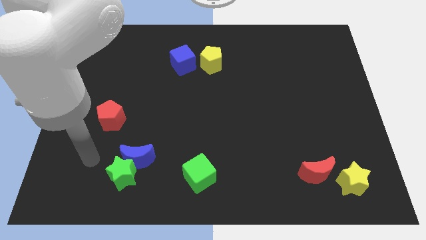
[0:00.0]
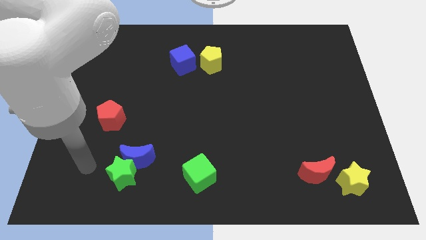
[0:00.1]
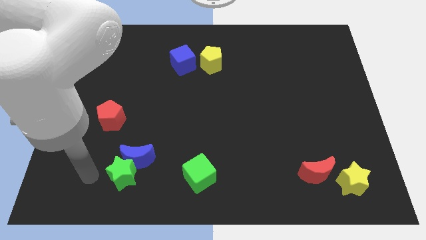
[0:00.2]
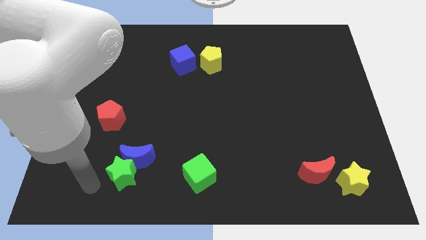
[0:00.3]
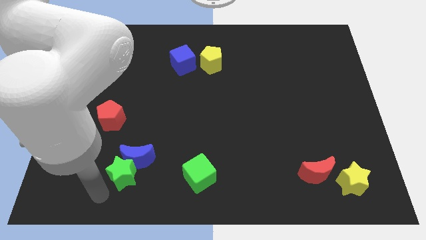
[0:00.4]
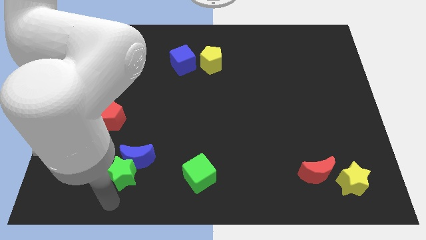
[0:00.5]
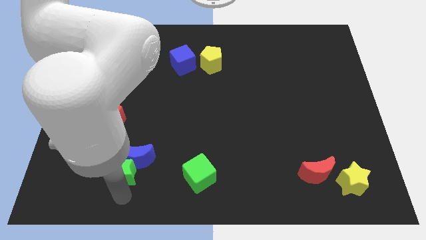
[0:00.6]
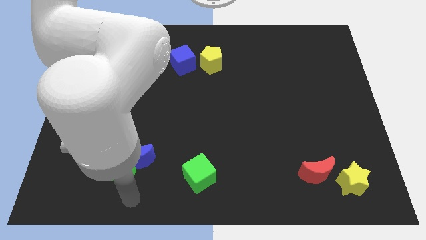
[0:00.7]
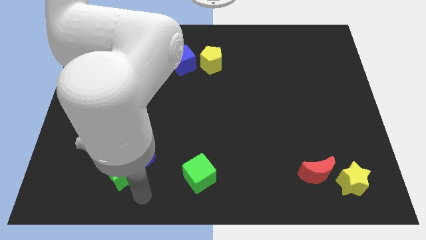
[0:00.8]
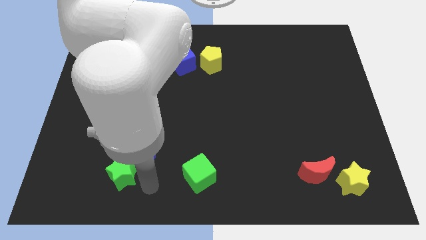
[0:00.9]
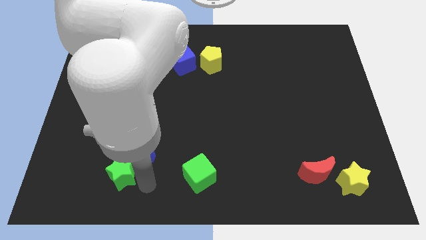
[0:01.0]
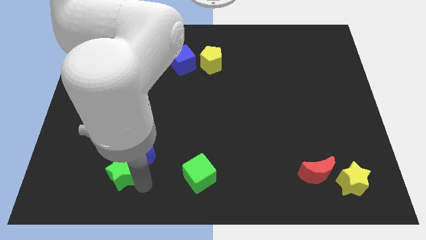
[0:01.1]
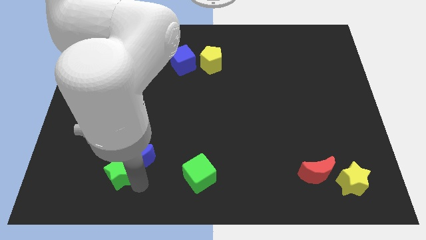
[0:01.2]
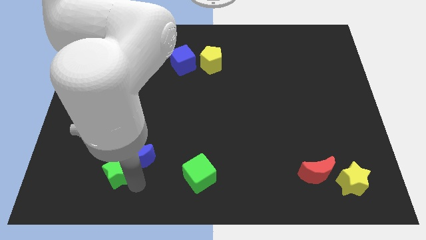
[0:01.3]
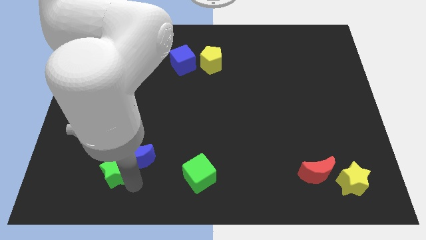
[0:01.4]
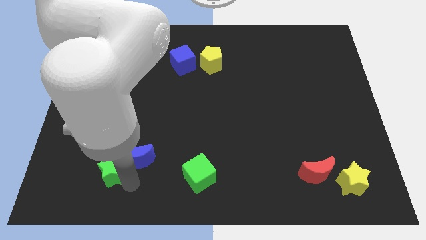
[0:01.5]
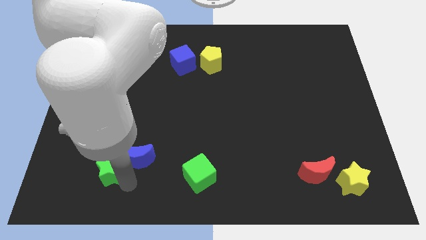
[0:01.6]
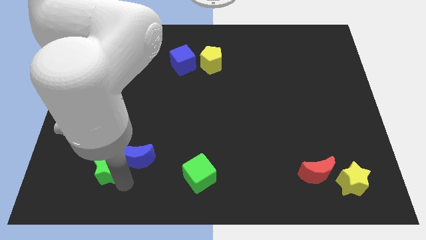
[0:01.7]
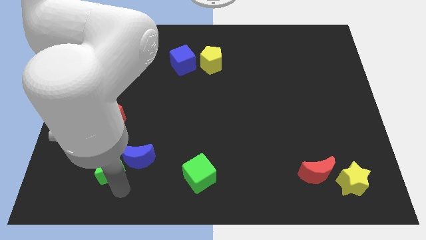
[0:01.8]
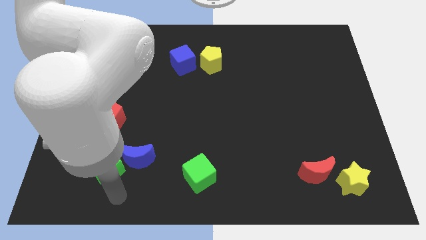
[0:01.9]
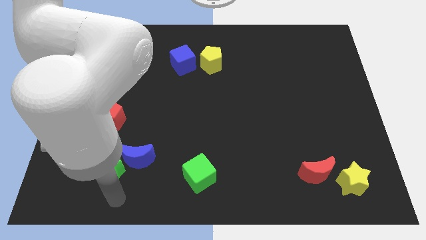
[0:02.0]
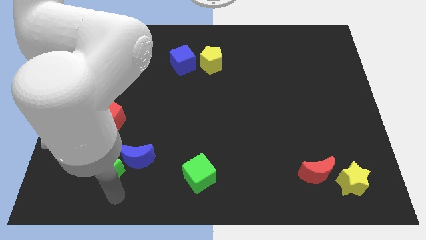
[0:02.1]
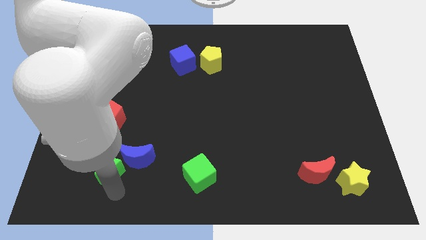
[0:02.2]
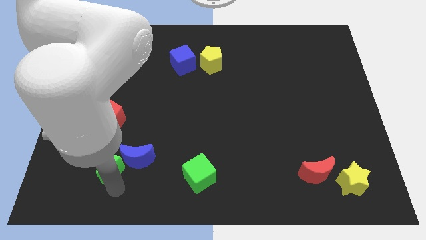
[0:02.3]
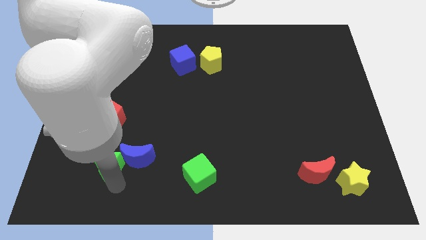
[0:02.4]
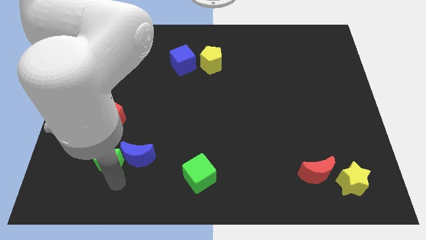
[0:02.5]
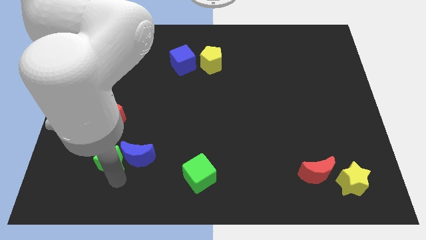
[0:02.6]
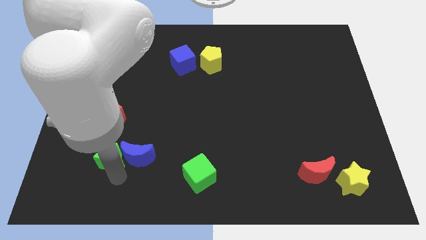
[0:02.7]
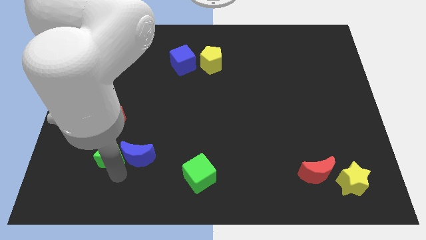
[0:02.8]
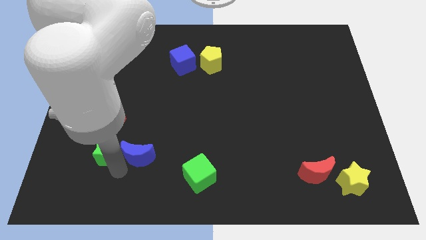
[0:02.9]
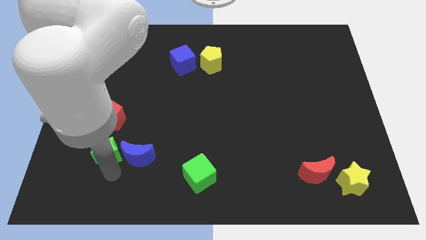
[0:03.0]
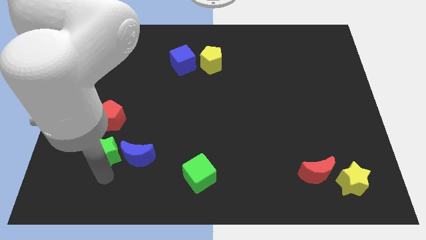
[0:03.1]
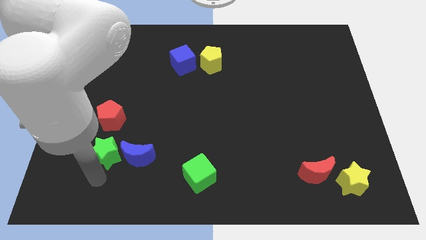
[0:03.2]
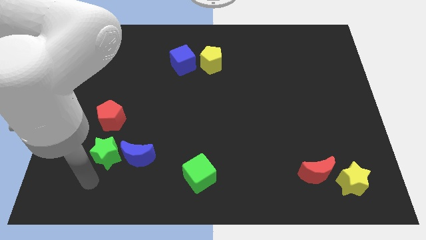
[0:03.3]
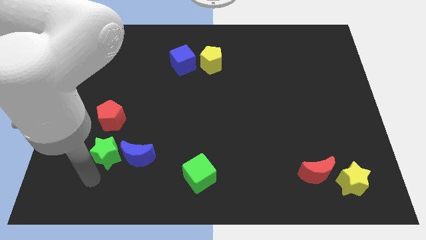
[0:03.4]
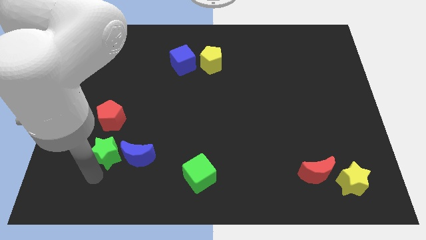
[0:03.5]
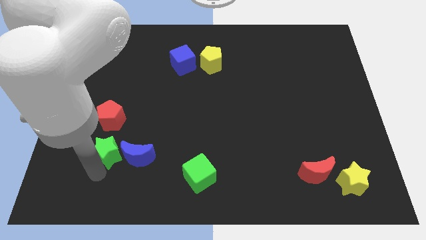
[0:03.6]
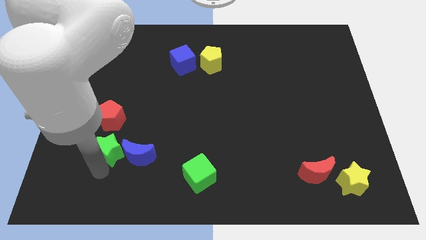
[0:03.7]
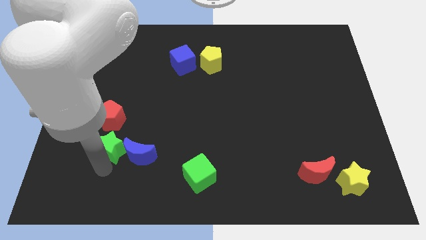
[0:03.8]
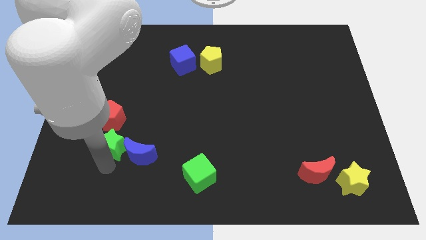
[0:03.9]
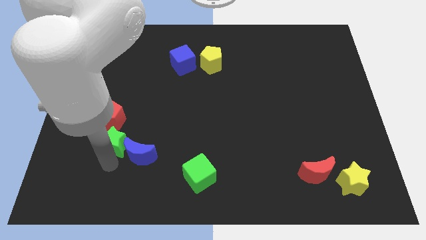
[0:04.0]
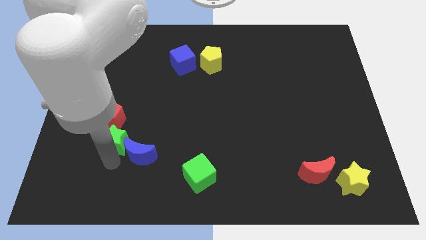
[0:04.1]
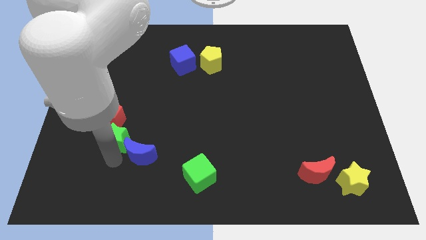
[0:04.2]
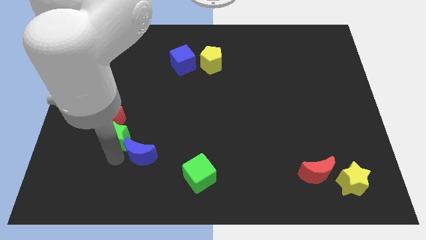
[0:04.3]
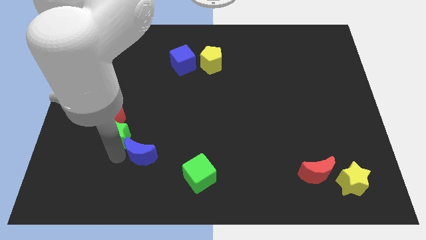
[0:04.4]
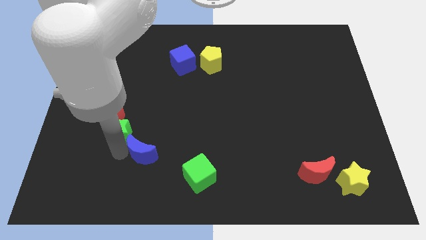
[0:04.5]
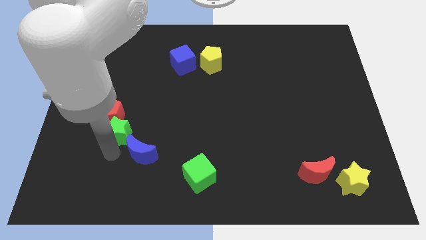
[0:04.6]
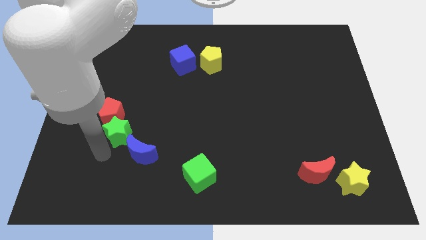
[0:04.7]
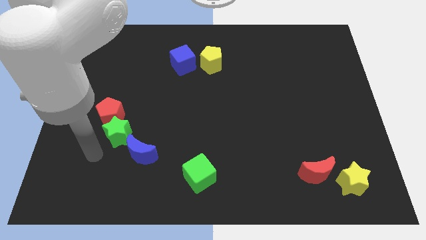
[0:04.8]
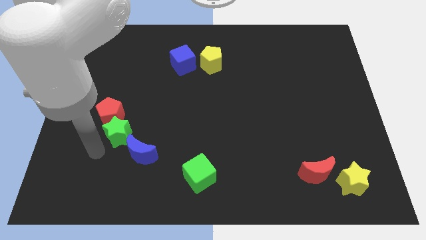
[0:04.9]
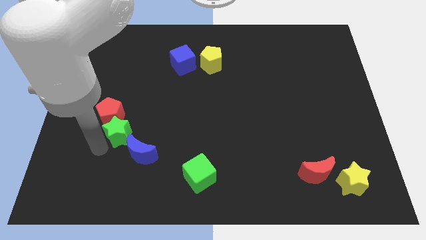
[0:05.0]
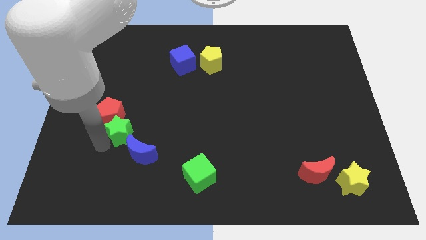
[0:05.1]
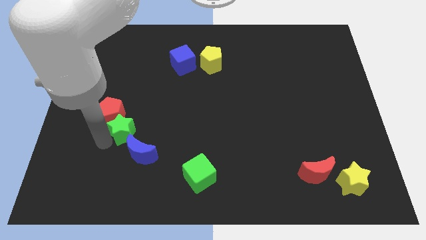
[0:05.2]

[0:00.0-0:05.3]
move the green star to the top of the blue moon

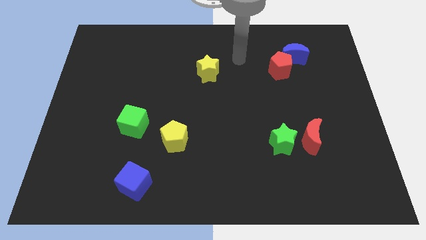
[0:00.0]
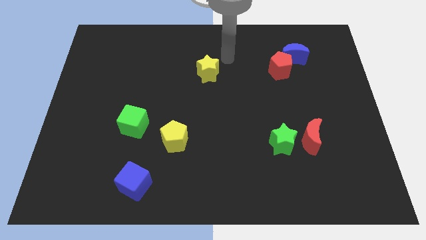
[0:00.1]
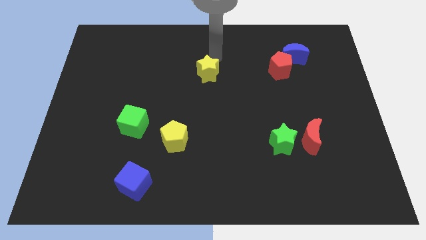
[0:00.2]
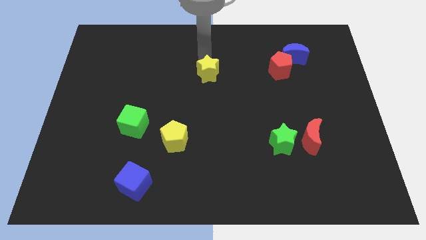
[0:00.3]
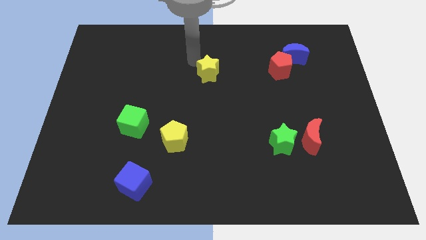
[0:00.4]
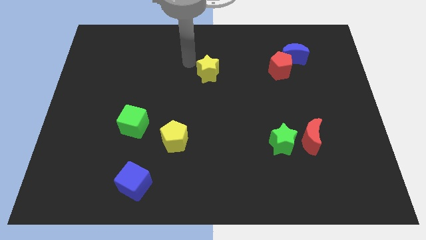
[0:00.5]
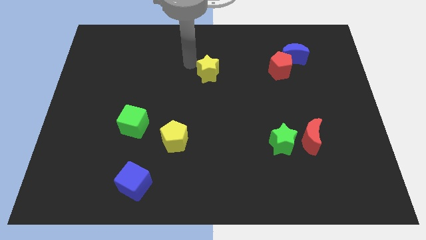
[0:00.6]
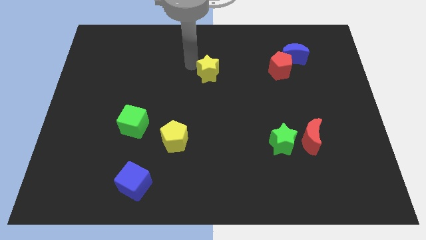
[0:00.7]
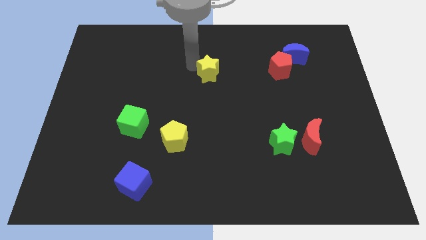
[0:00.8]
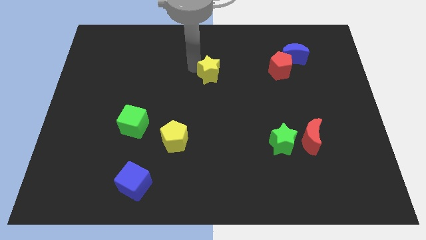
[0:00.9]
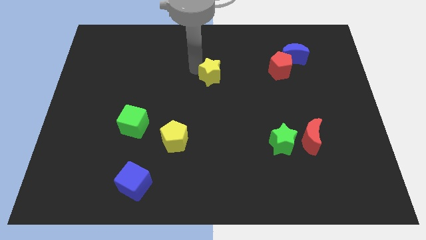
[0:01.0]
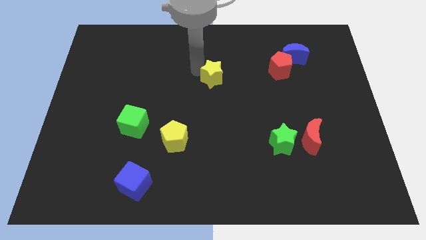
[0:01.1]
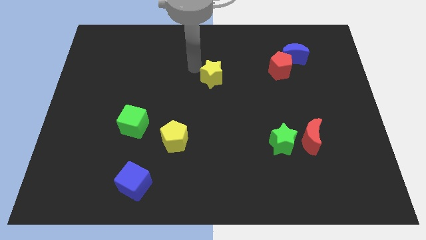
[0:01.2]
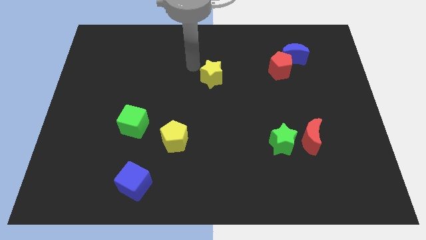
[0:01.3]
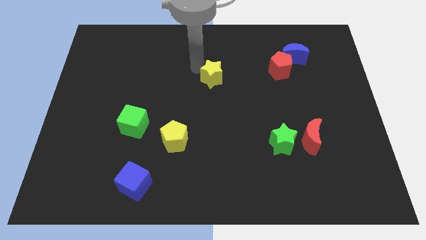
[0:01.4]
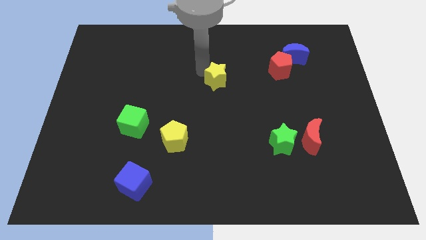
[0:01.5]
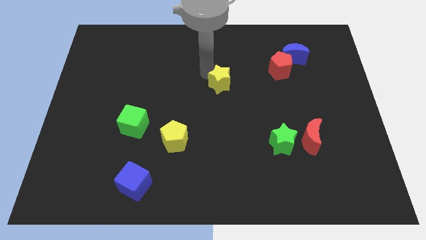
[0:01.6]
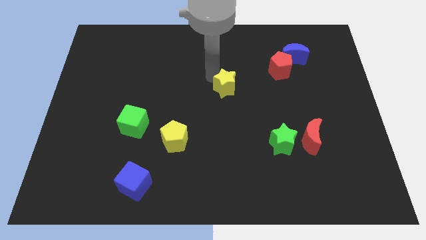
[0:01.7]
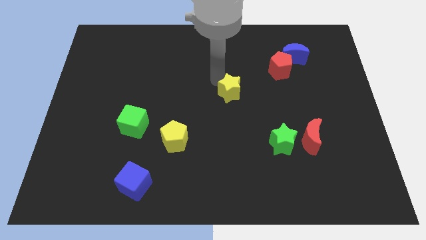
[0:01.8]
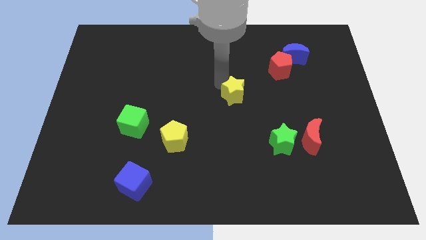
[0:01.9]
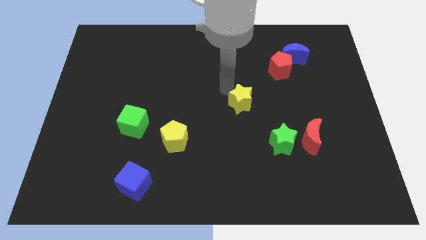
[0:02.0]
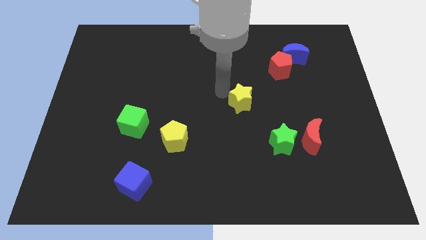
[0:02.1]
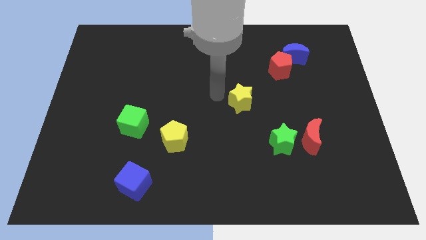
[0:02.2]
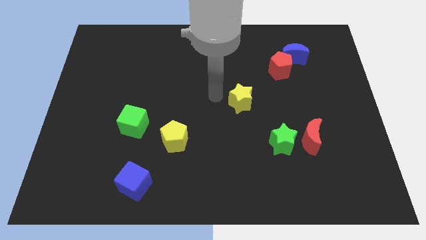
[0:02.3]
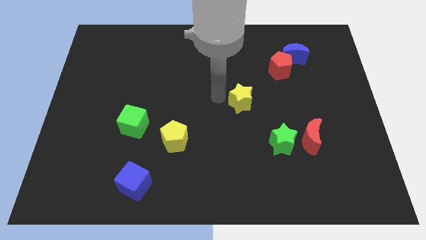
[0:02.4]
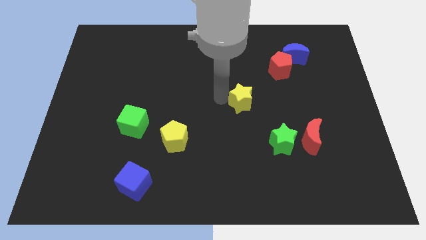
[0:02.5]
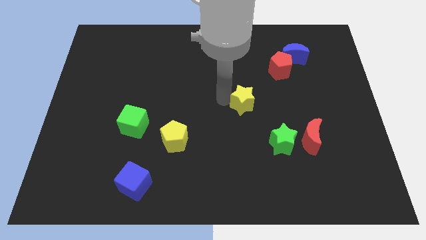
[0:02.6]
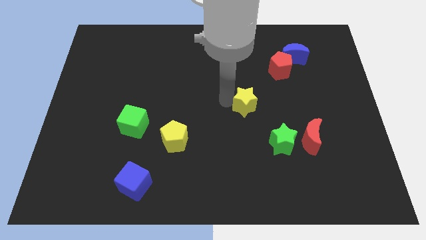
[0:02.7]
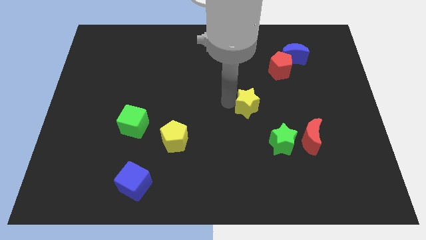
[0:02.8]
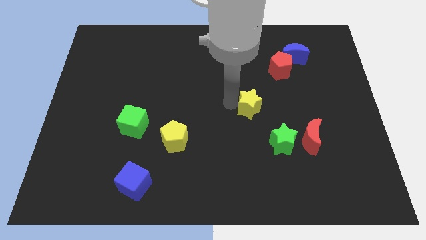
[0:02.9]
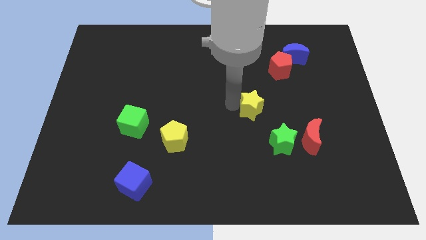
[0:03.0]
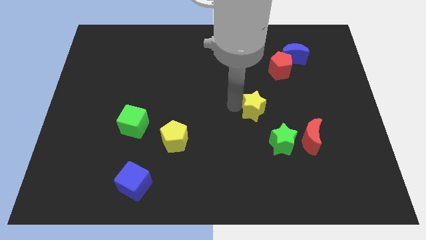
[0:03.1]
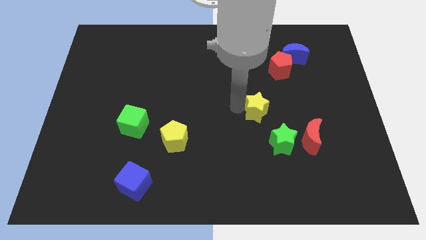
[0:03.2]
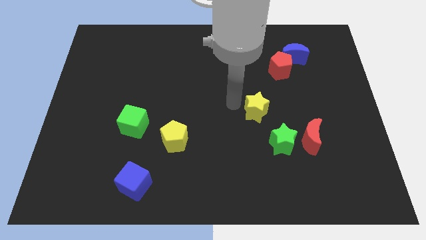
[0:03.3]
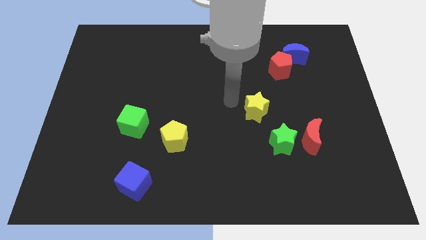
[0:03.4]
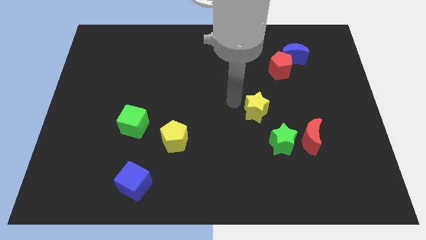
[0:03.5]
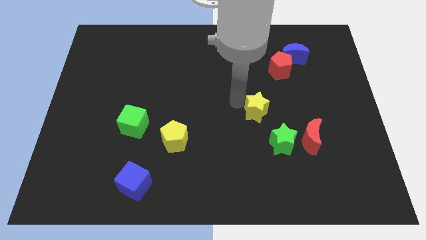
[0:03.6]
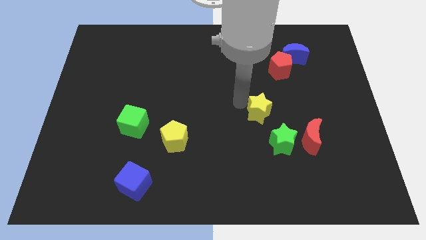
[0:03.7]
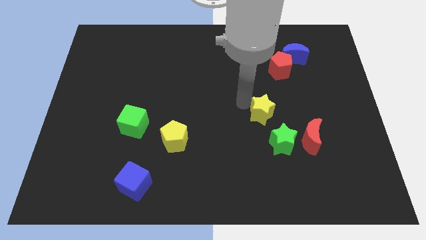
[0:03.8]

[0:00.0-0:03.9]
put the yellow star to the top left of the red moon
